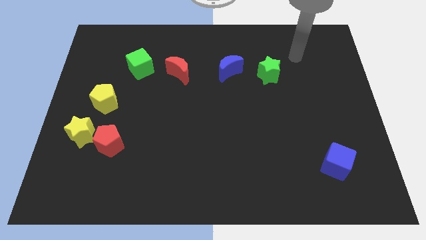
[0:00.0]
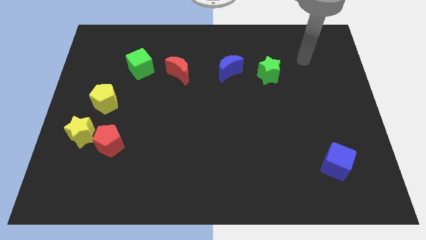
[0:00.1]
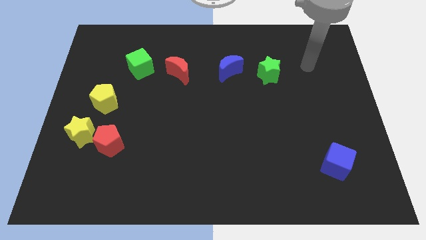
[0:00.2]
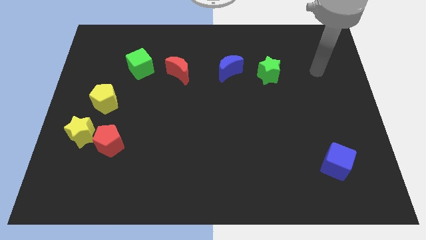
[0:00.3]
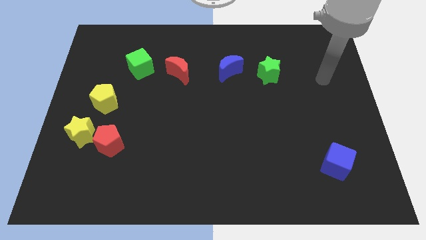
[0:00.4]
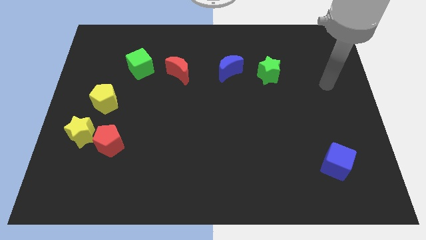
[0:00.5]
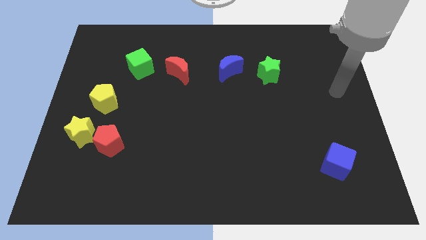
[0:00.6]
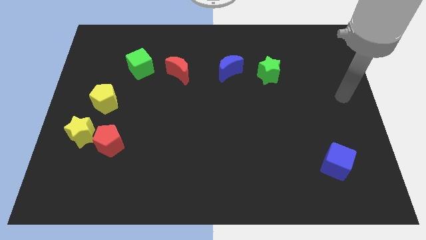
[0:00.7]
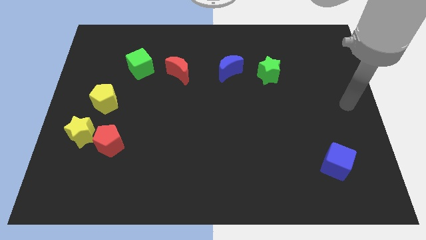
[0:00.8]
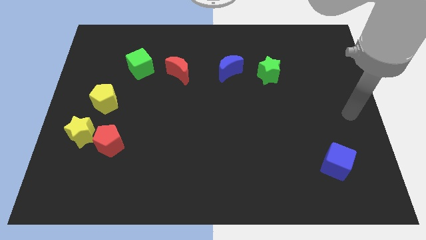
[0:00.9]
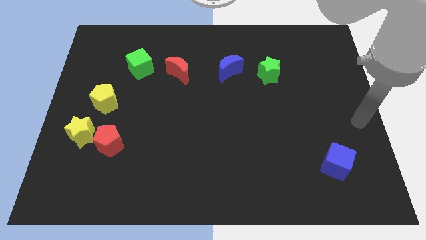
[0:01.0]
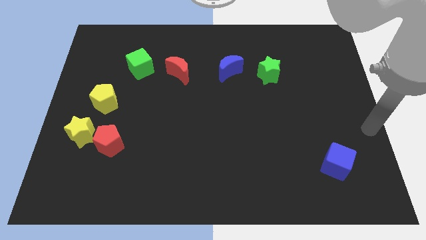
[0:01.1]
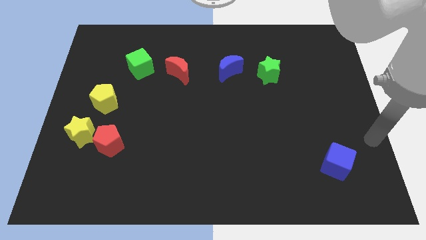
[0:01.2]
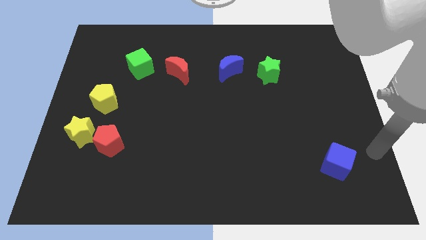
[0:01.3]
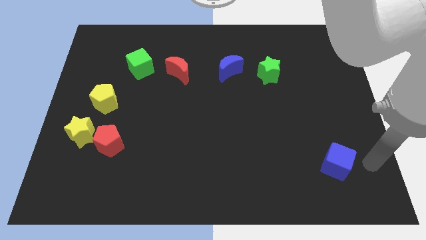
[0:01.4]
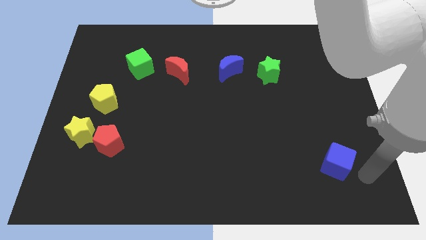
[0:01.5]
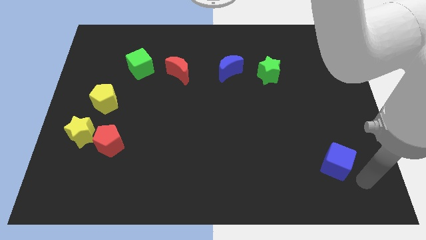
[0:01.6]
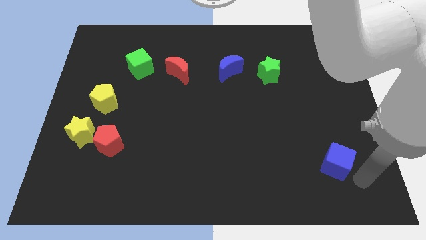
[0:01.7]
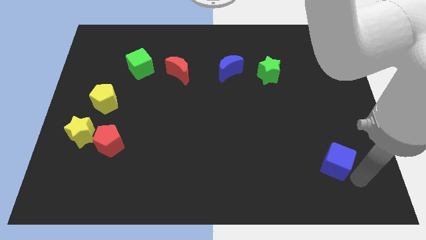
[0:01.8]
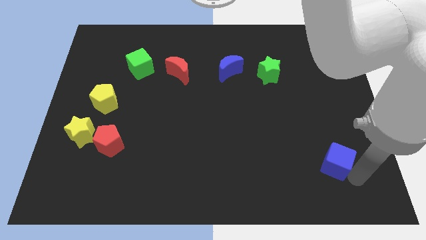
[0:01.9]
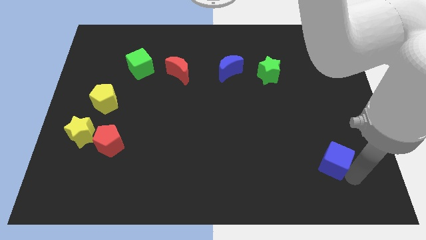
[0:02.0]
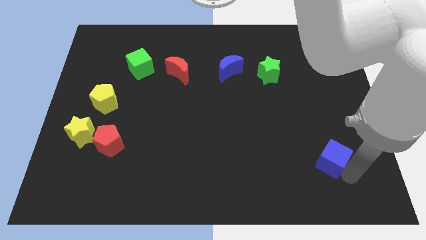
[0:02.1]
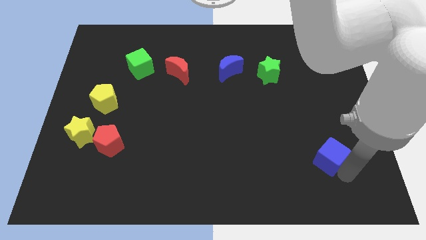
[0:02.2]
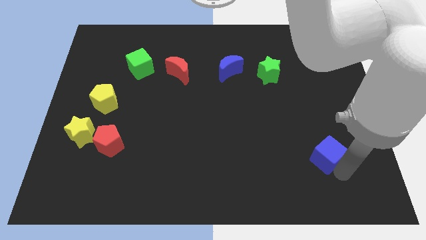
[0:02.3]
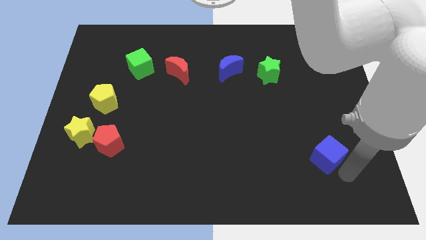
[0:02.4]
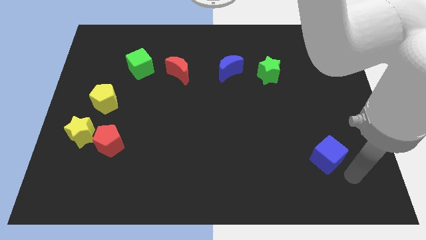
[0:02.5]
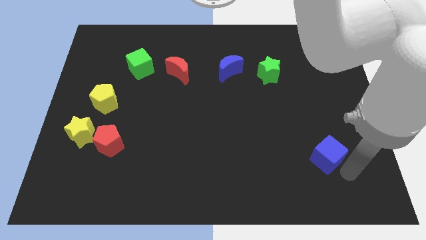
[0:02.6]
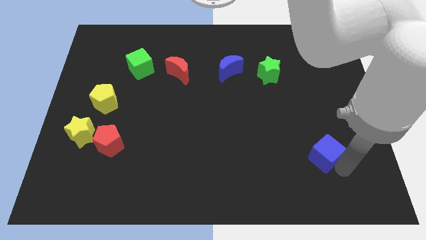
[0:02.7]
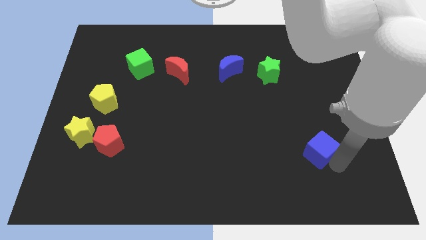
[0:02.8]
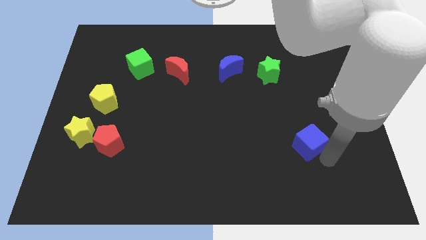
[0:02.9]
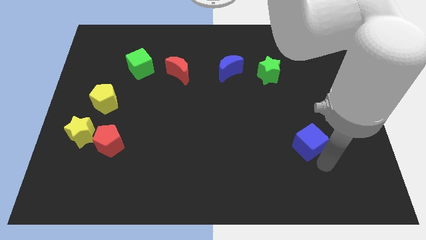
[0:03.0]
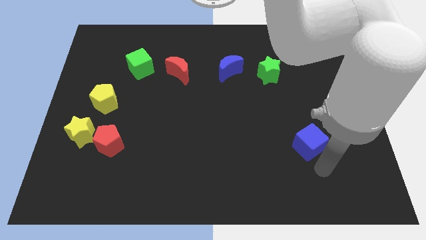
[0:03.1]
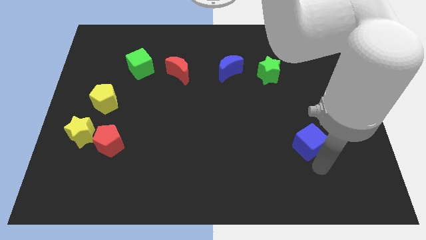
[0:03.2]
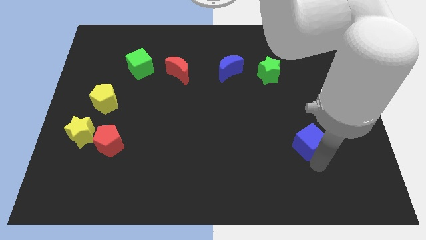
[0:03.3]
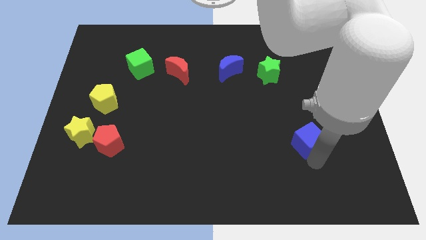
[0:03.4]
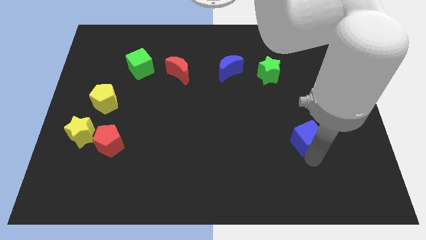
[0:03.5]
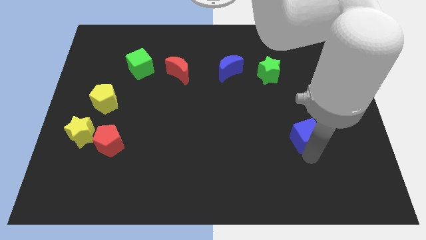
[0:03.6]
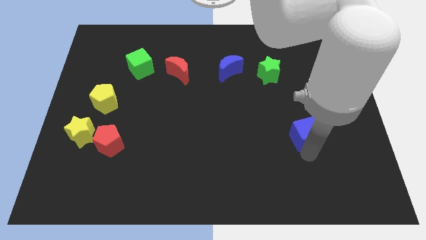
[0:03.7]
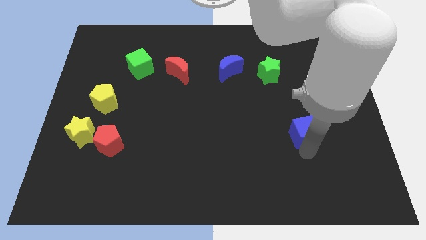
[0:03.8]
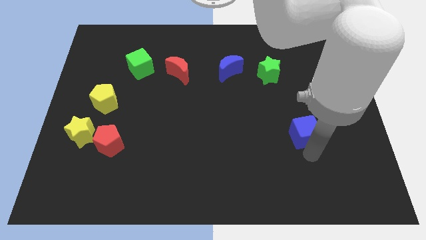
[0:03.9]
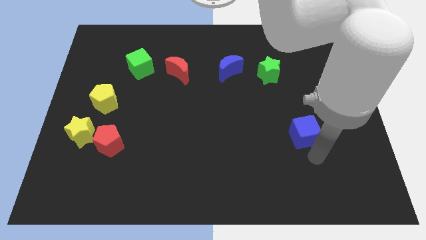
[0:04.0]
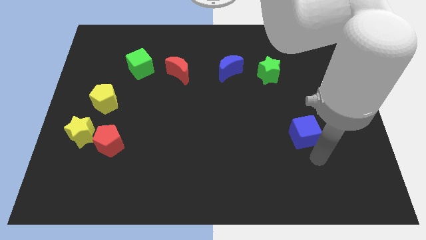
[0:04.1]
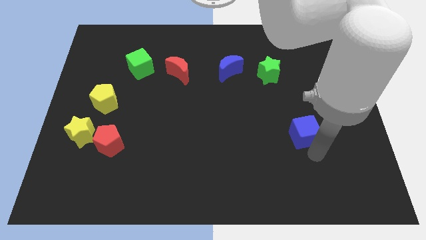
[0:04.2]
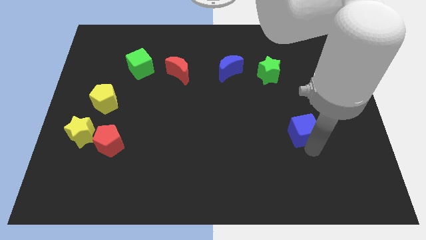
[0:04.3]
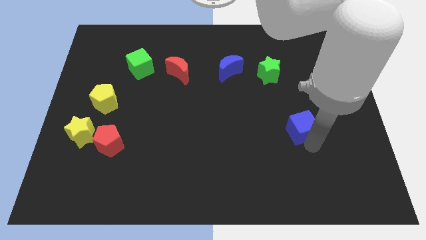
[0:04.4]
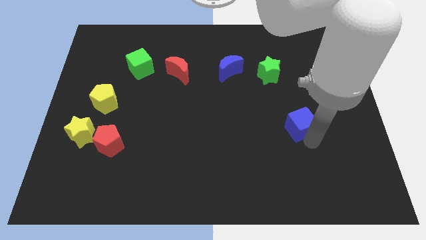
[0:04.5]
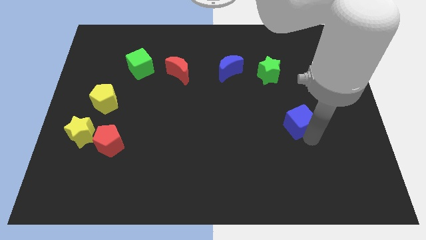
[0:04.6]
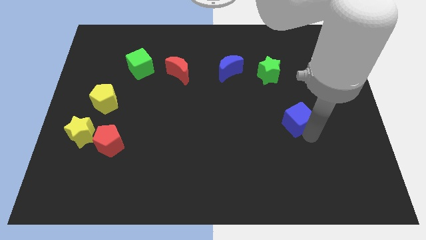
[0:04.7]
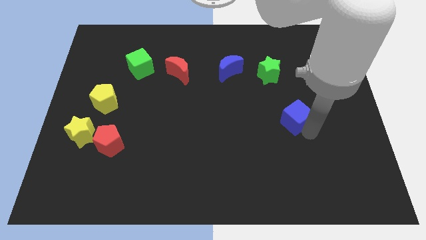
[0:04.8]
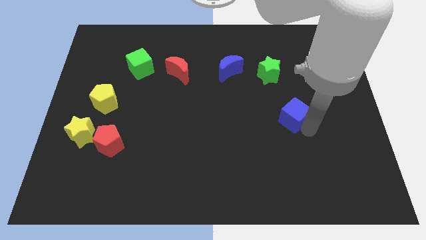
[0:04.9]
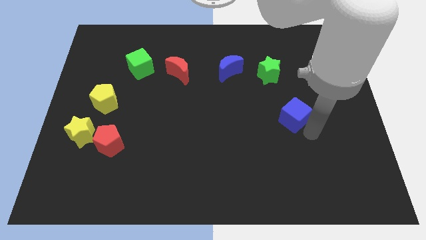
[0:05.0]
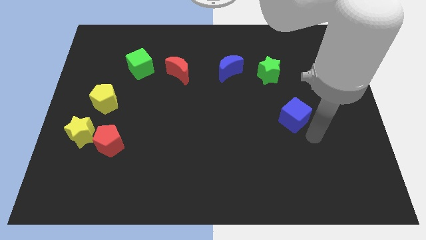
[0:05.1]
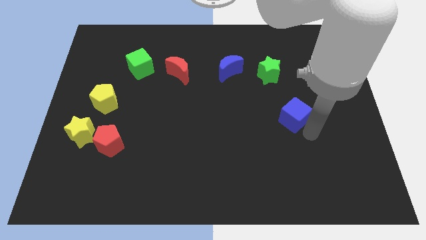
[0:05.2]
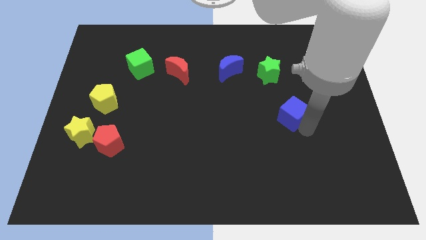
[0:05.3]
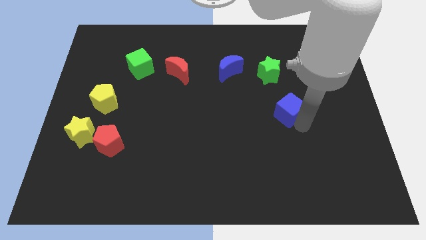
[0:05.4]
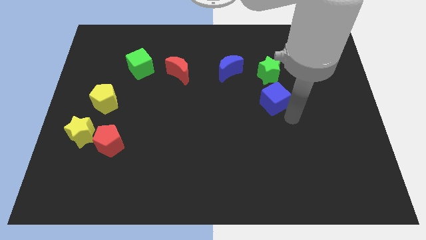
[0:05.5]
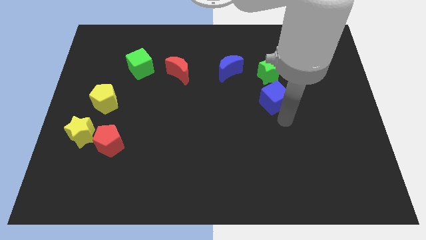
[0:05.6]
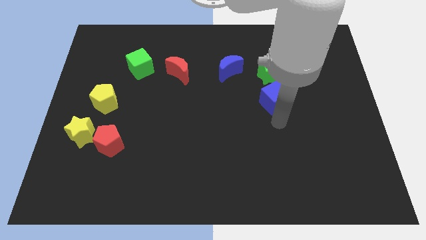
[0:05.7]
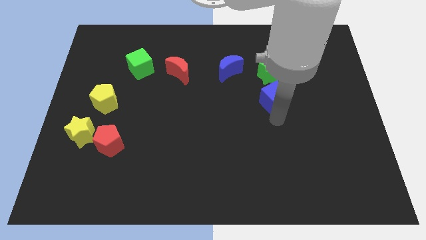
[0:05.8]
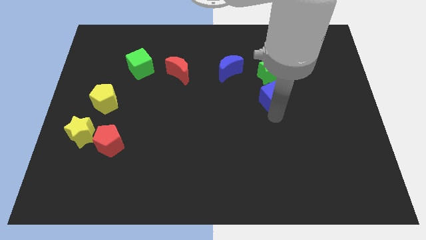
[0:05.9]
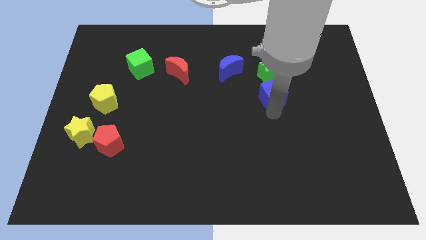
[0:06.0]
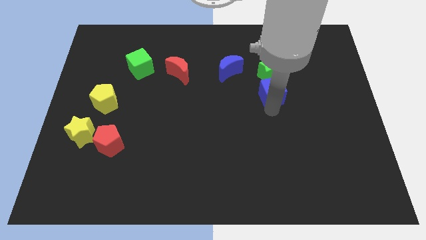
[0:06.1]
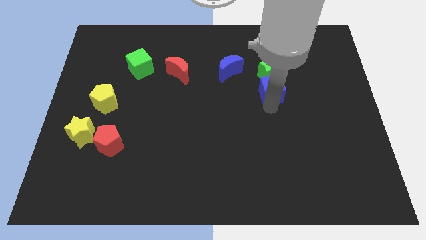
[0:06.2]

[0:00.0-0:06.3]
slide the blue cube next to the green star
